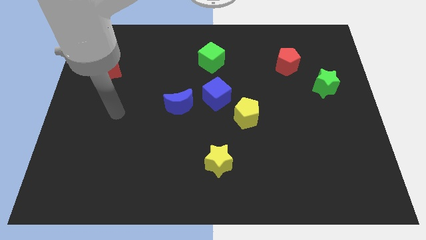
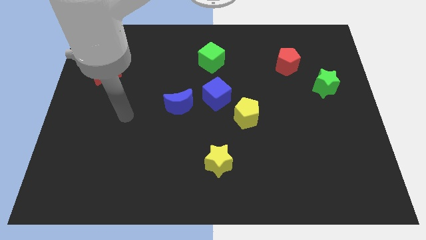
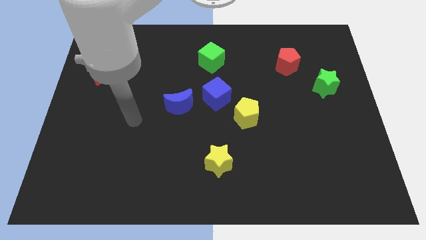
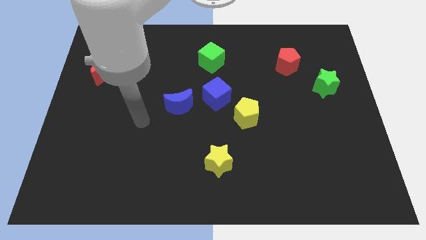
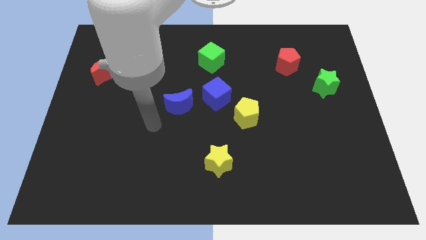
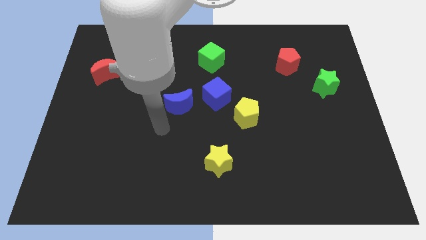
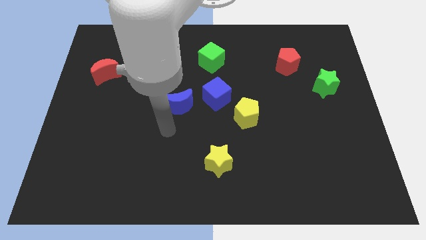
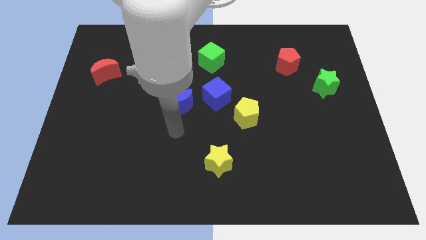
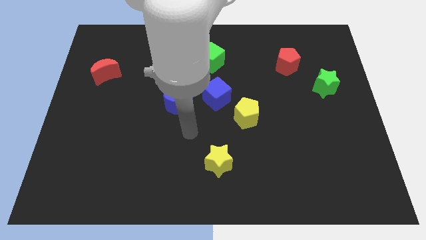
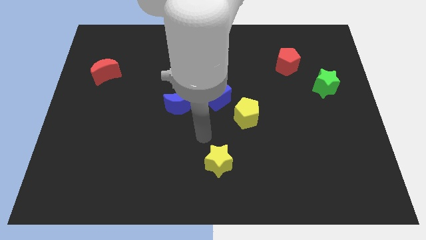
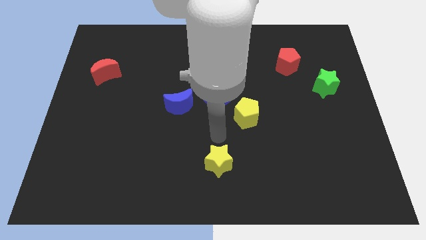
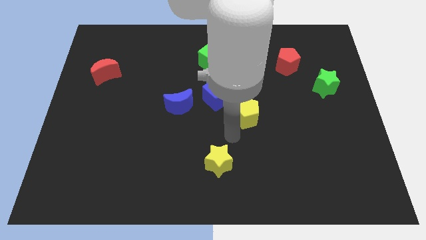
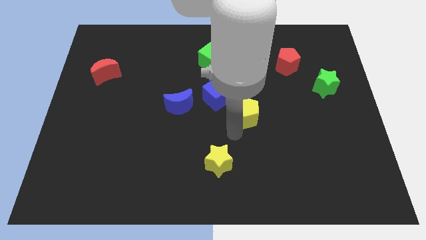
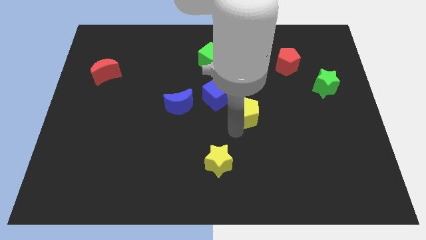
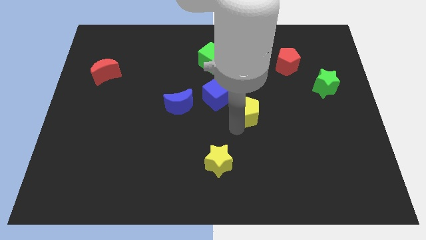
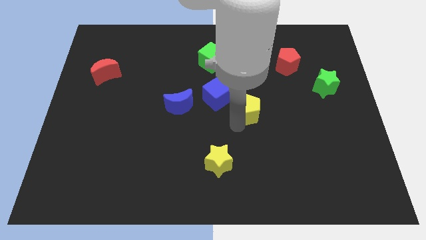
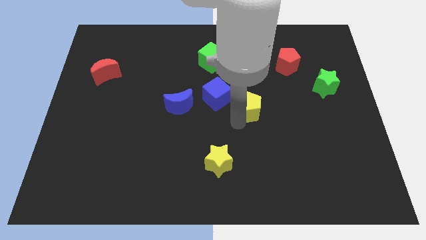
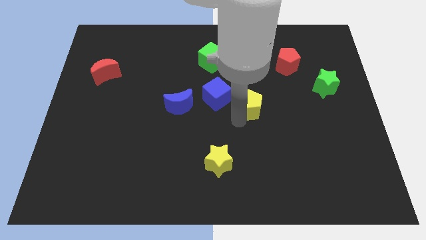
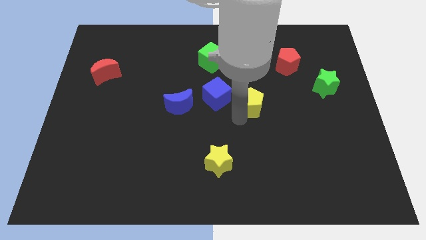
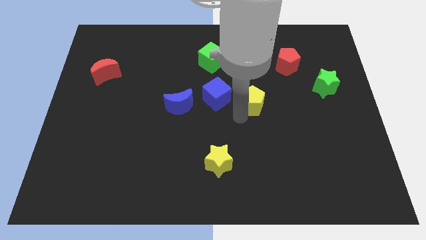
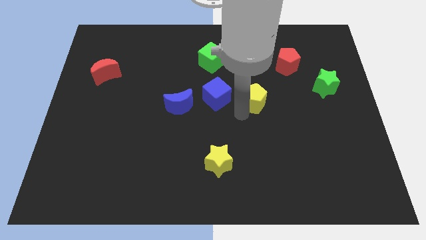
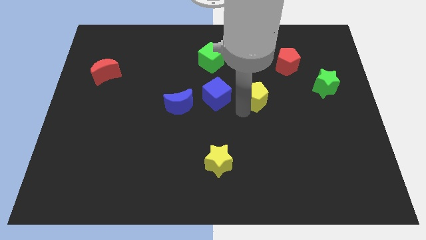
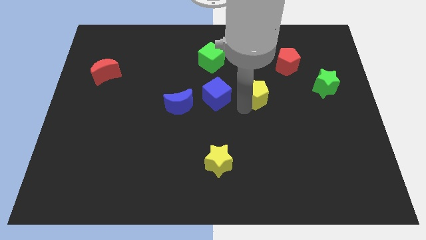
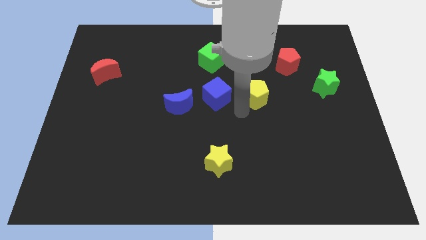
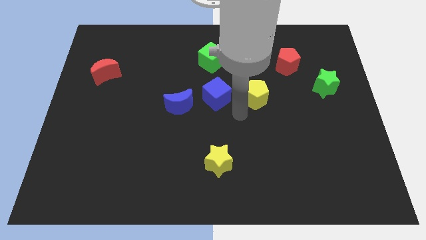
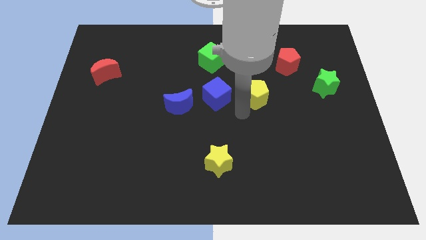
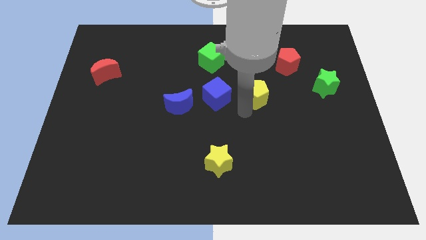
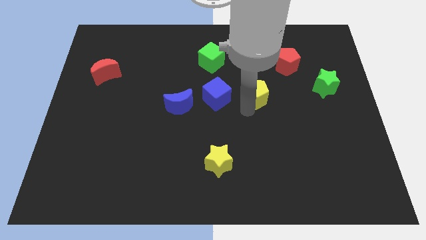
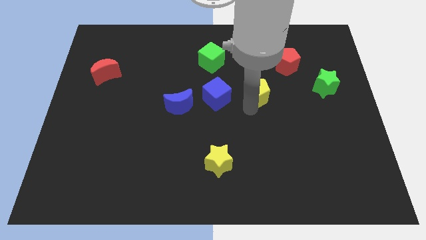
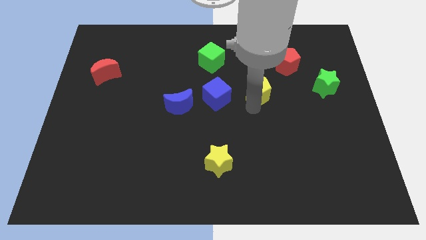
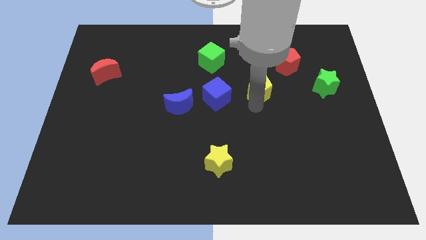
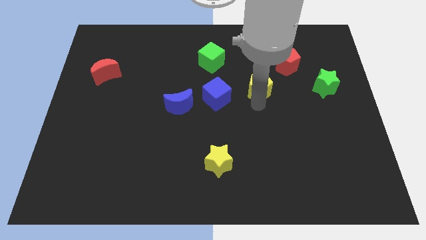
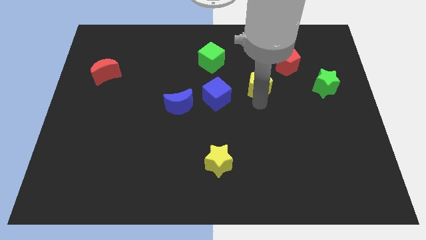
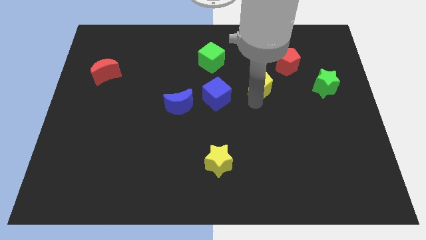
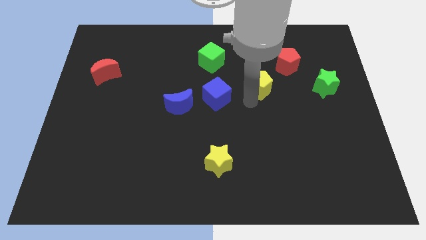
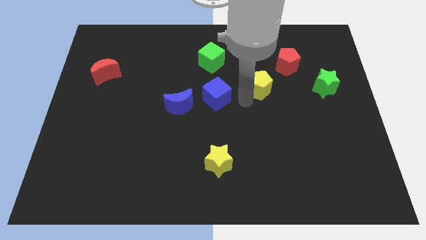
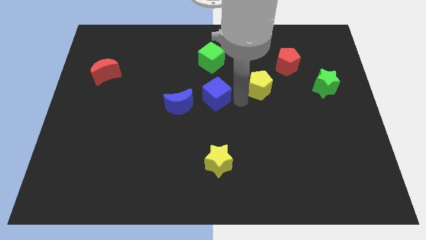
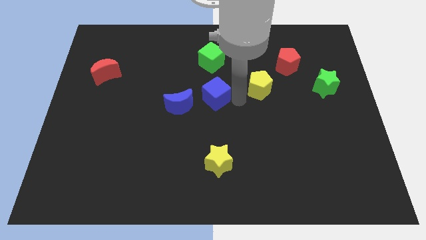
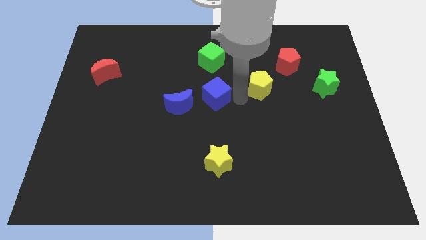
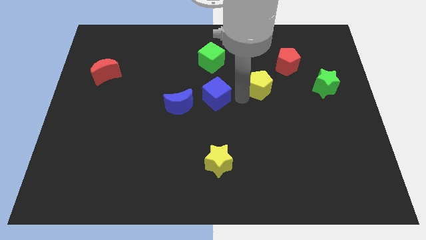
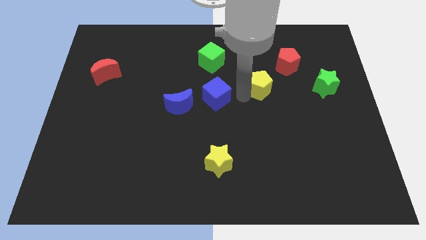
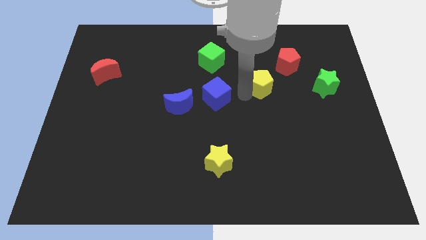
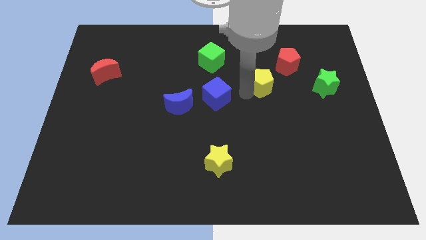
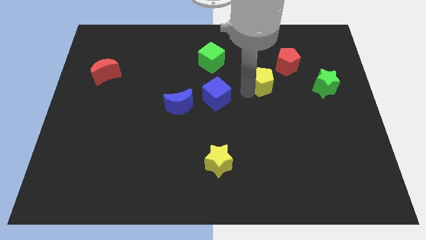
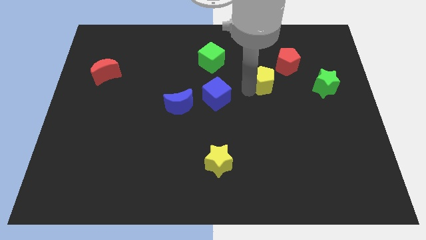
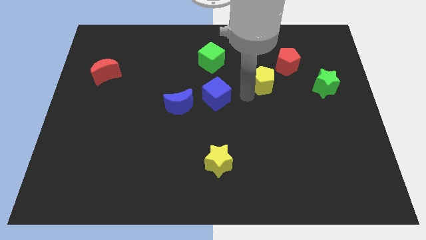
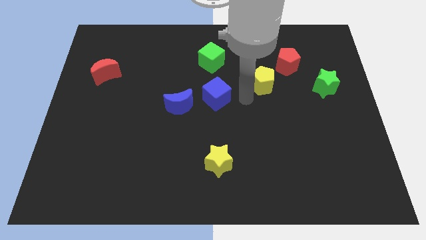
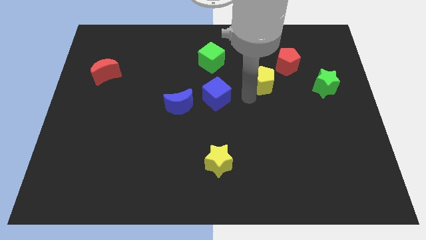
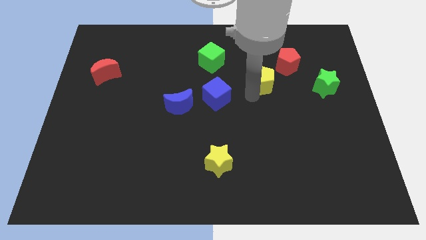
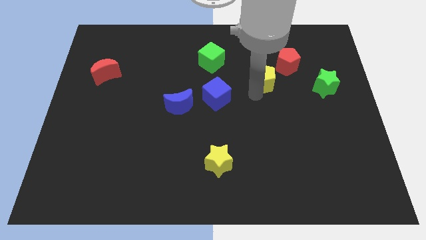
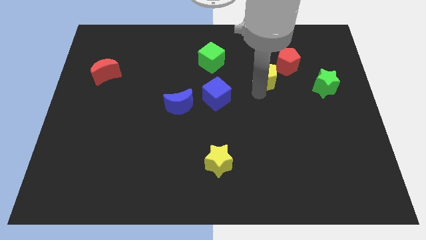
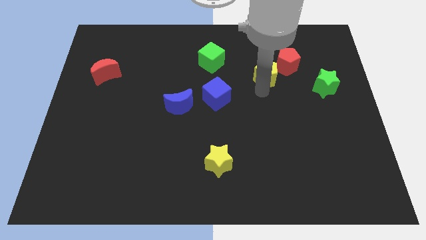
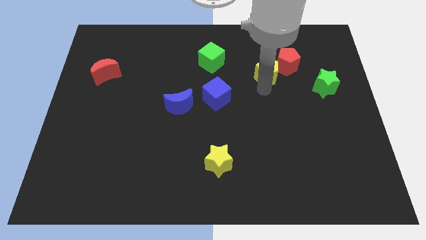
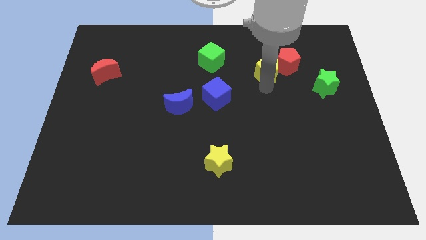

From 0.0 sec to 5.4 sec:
put the yellow pentagon to the red pentagon

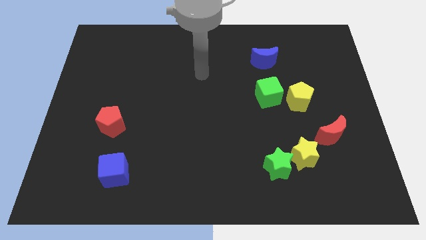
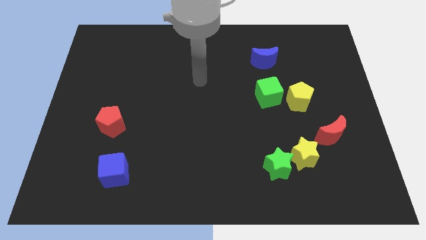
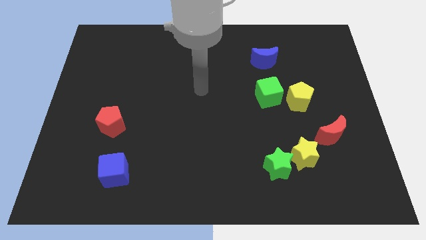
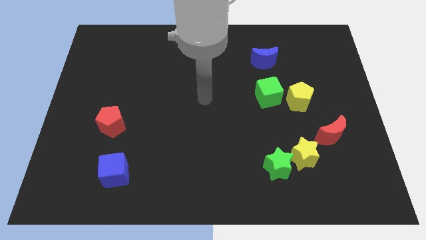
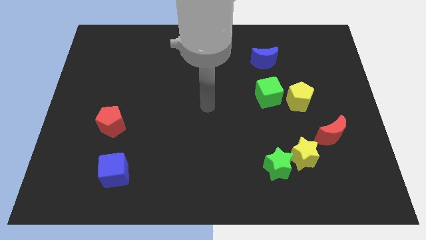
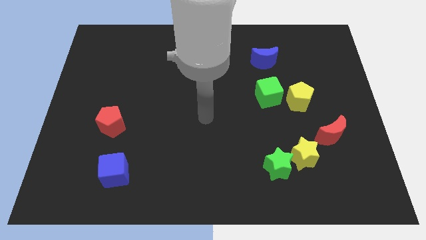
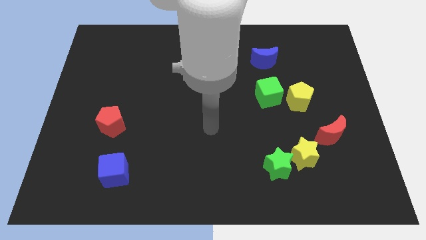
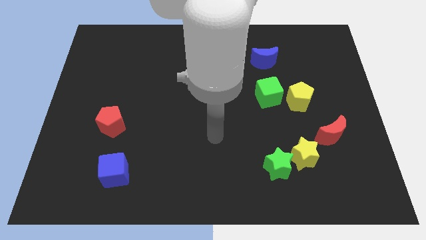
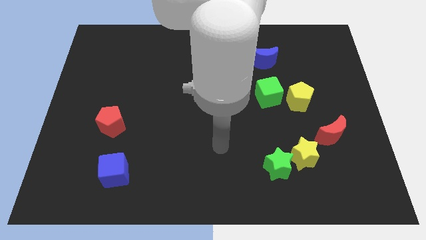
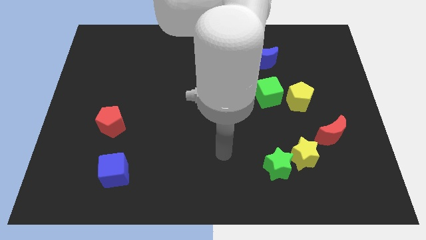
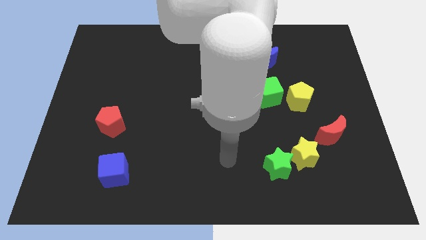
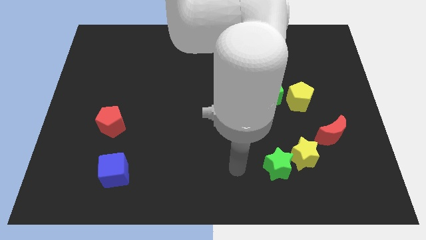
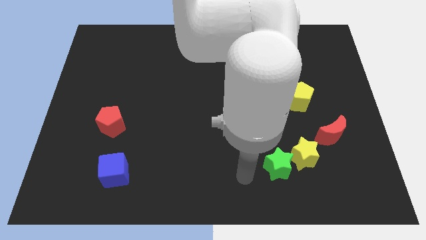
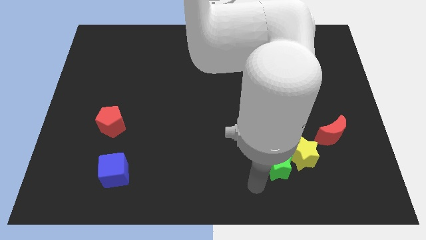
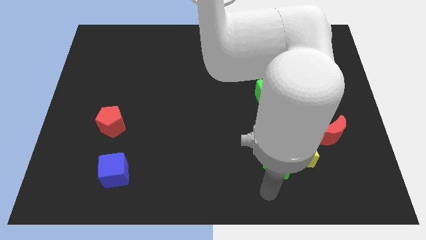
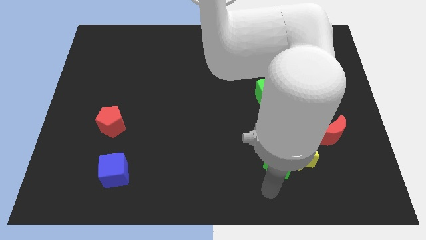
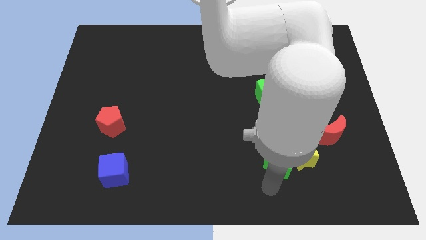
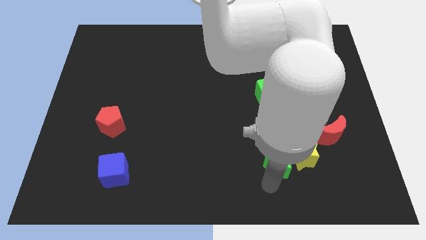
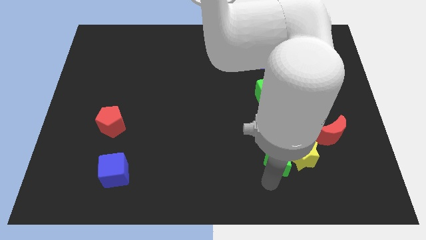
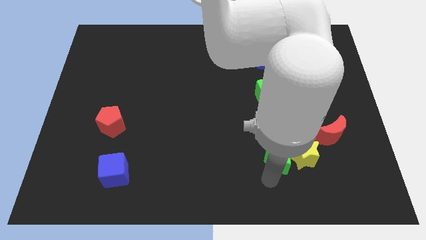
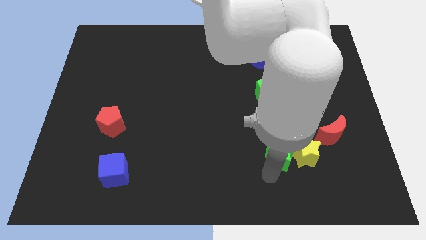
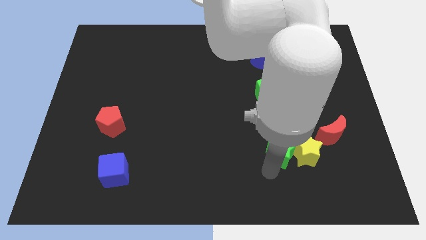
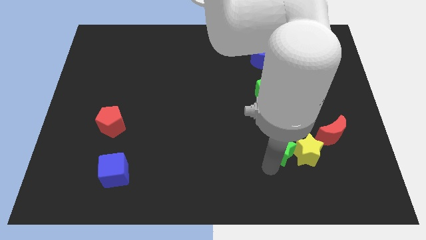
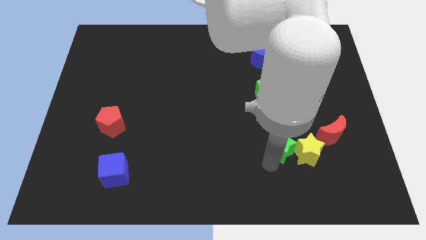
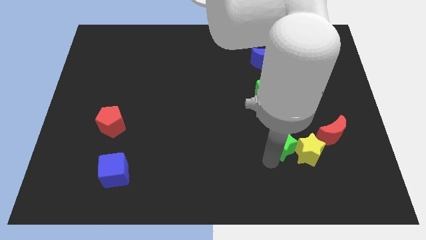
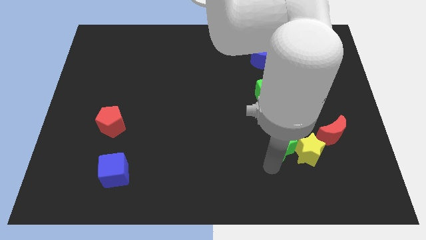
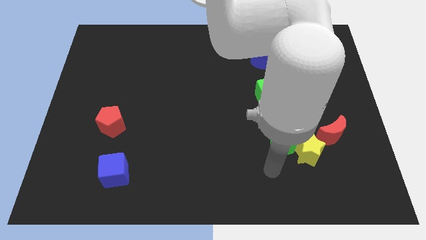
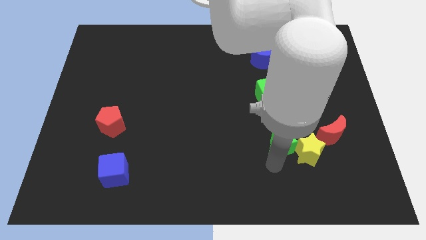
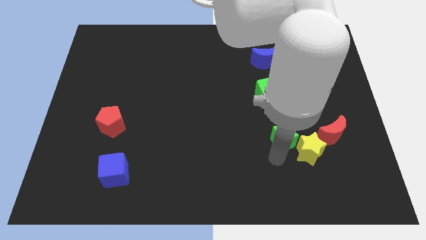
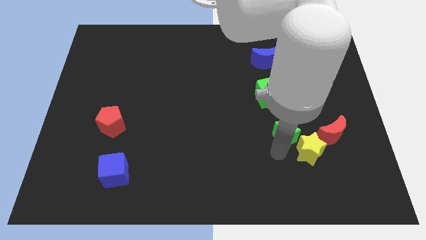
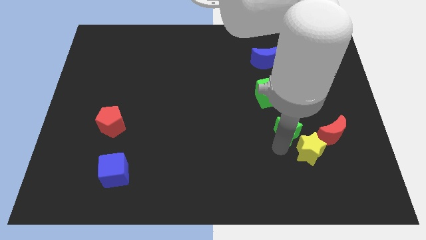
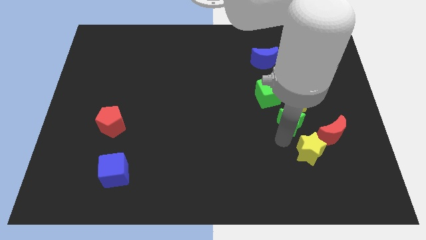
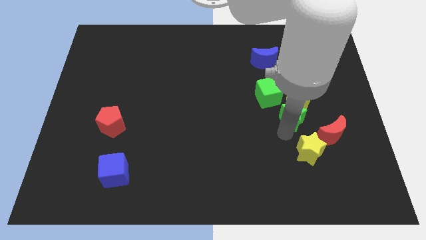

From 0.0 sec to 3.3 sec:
put the green star to the yellow pentagon
